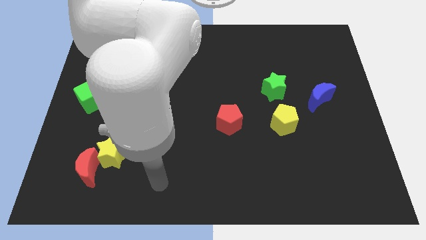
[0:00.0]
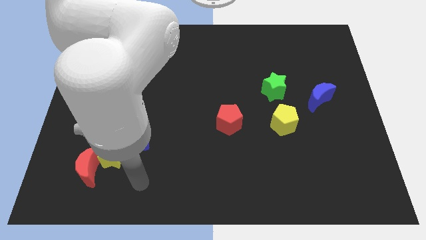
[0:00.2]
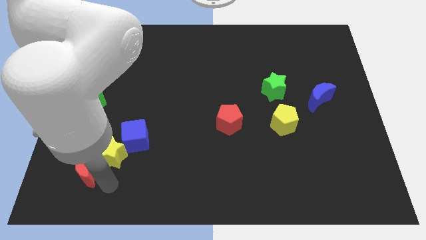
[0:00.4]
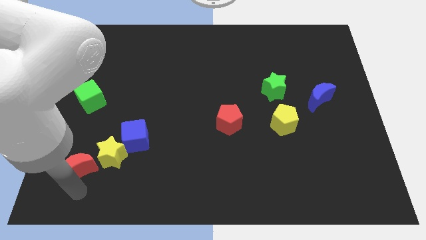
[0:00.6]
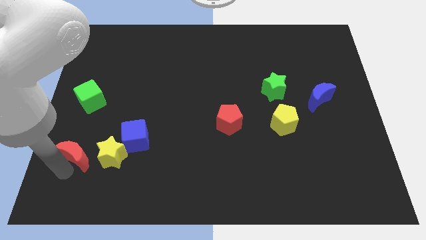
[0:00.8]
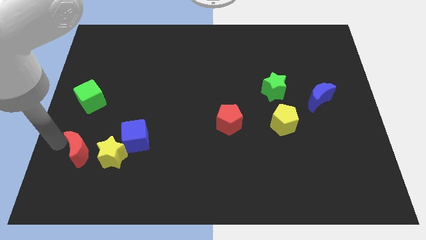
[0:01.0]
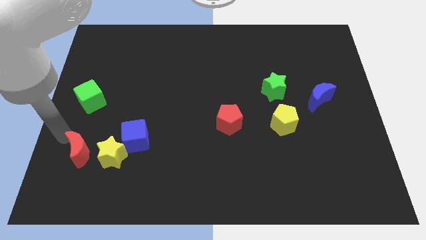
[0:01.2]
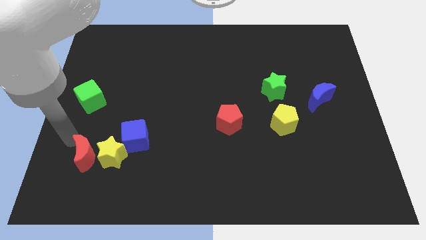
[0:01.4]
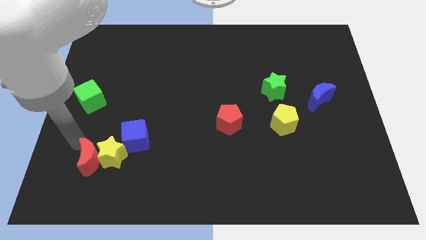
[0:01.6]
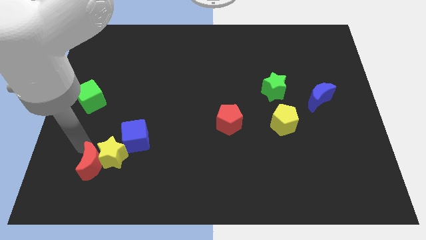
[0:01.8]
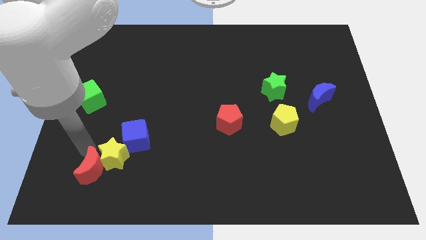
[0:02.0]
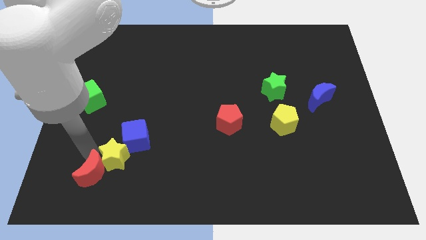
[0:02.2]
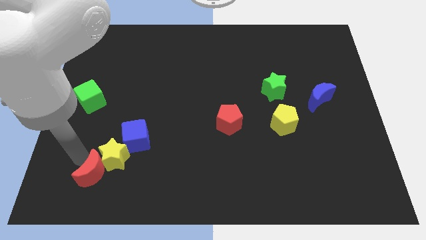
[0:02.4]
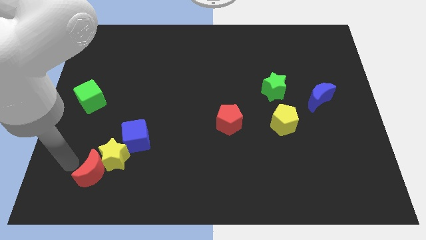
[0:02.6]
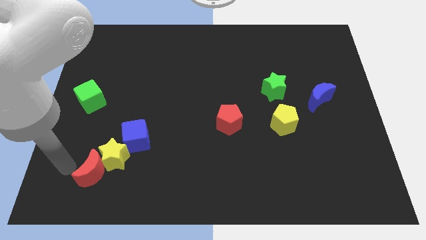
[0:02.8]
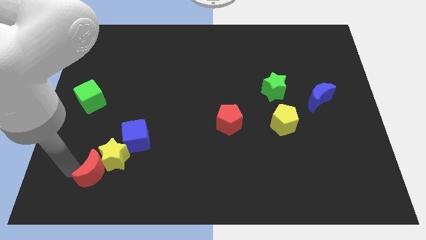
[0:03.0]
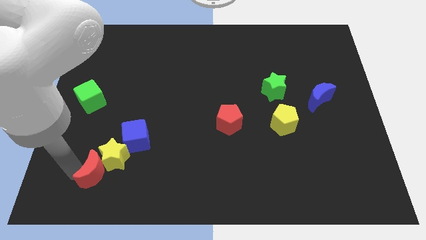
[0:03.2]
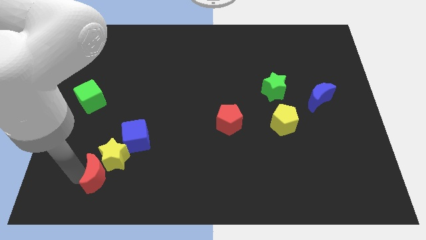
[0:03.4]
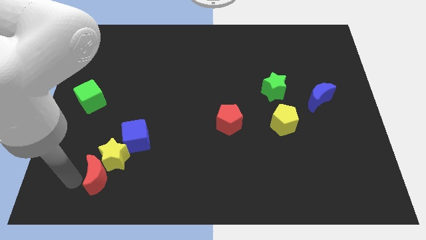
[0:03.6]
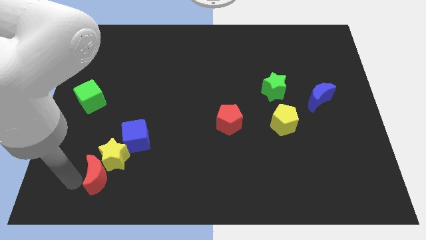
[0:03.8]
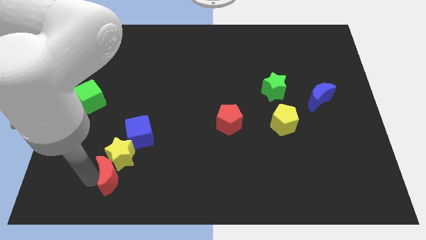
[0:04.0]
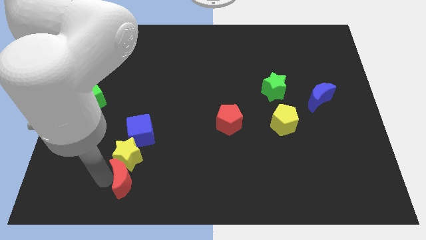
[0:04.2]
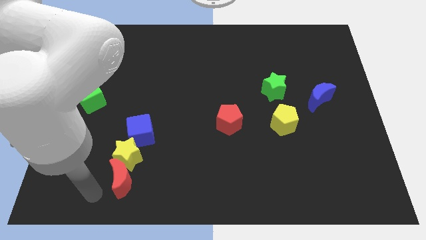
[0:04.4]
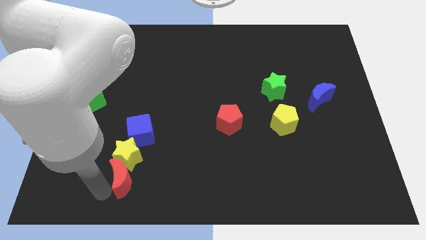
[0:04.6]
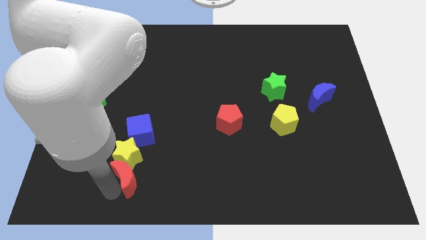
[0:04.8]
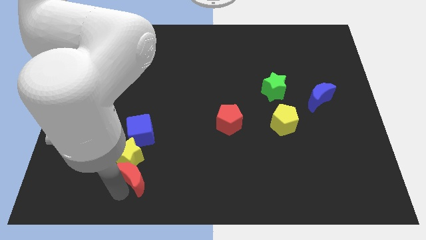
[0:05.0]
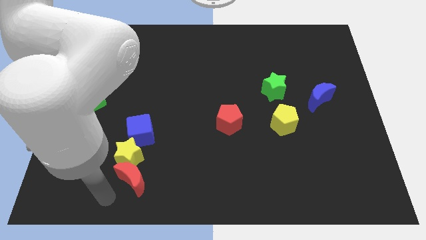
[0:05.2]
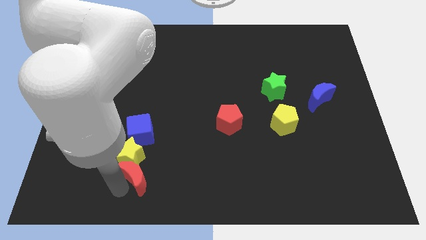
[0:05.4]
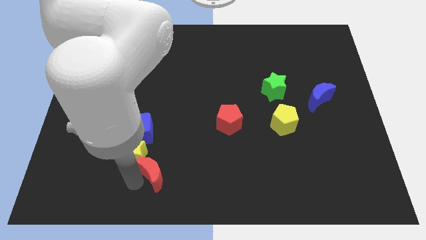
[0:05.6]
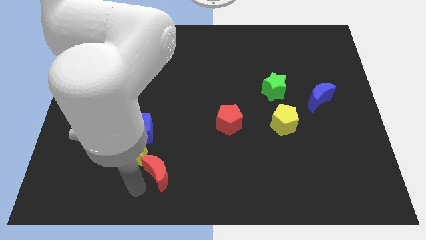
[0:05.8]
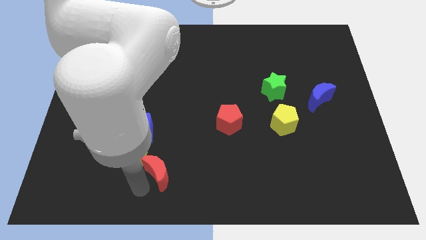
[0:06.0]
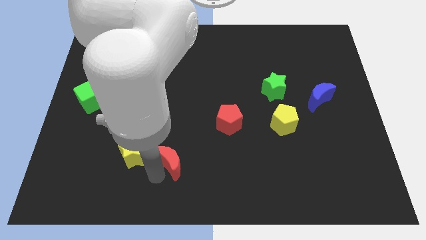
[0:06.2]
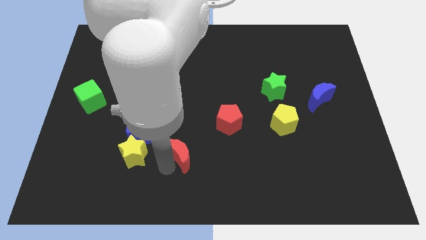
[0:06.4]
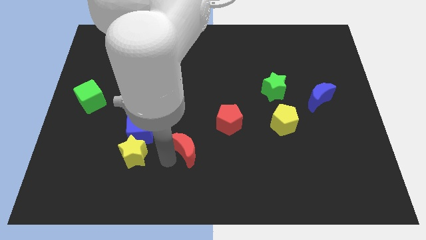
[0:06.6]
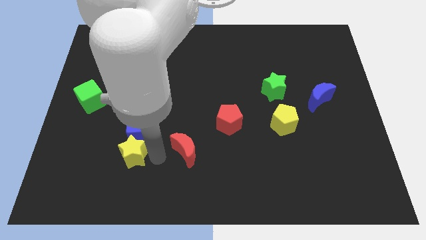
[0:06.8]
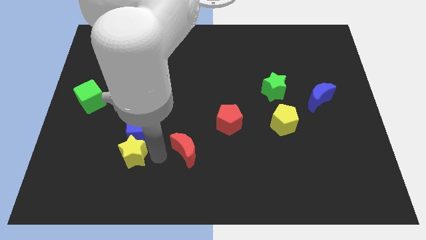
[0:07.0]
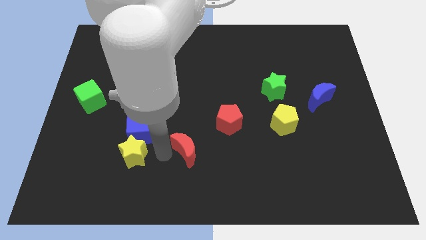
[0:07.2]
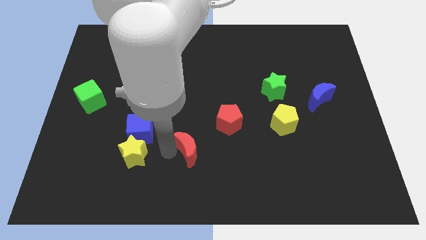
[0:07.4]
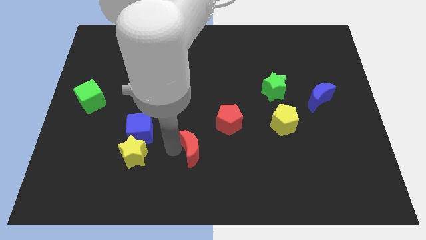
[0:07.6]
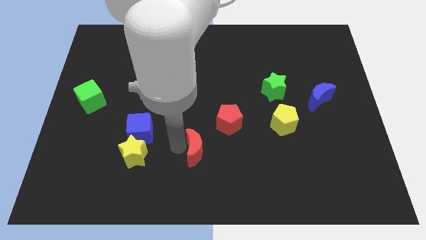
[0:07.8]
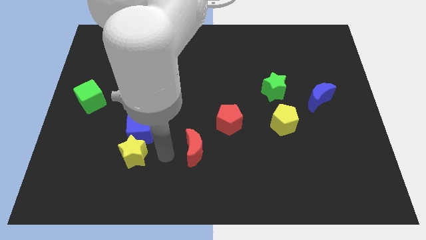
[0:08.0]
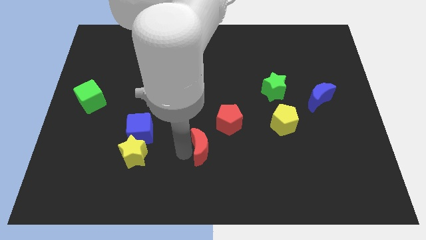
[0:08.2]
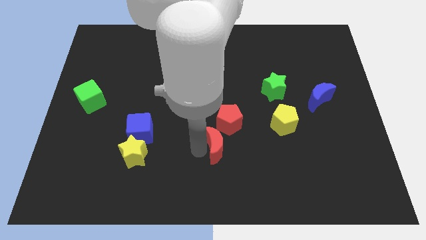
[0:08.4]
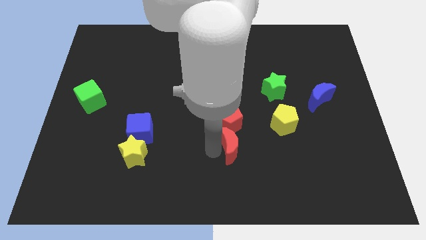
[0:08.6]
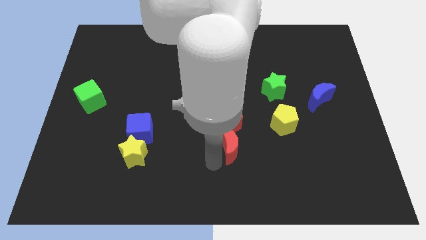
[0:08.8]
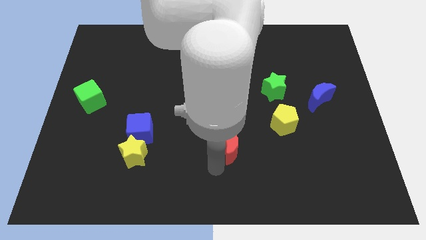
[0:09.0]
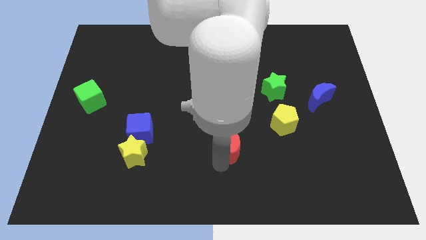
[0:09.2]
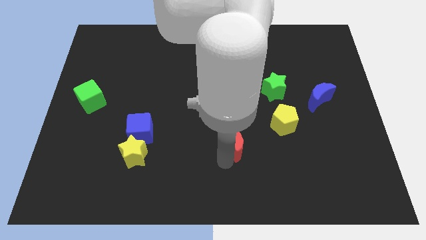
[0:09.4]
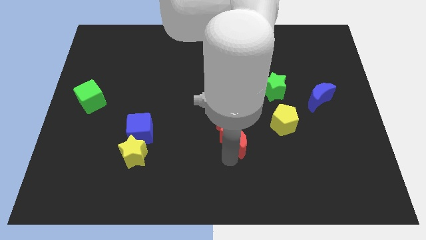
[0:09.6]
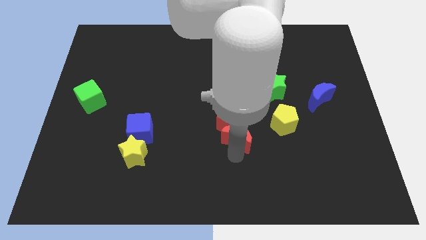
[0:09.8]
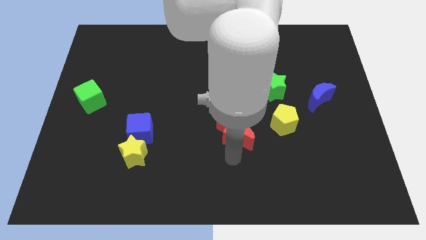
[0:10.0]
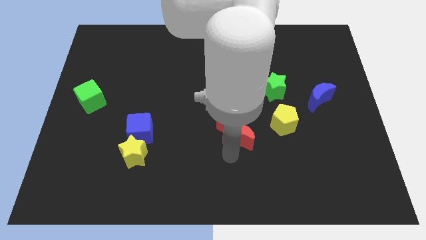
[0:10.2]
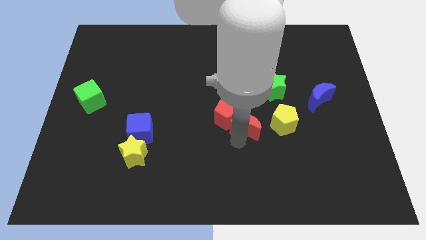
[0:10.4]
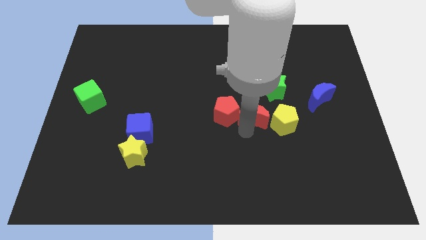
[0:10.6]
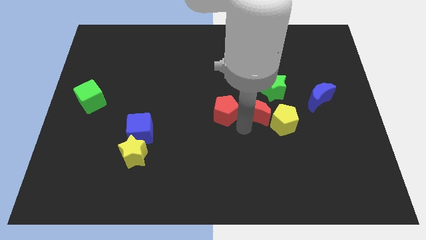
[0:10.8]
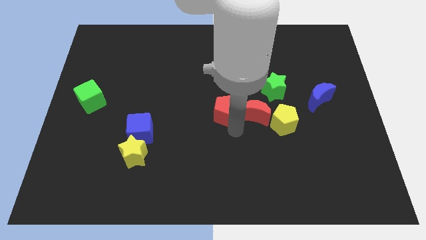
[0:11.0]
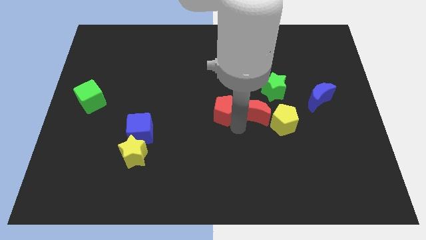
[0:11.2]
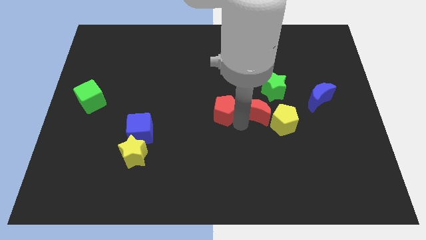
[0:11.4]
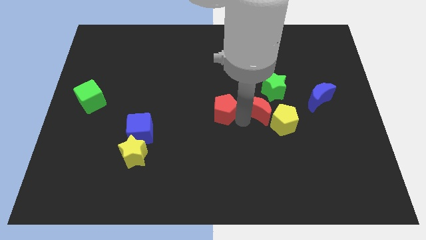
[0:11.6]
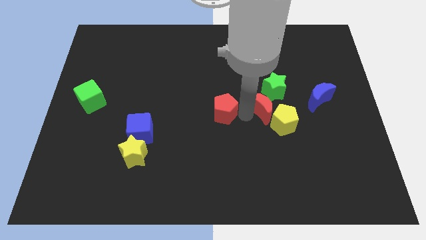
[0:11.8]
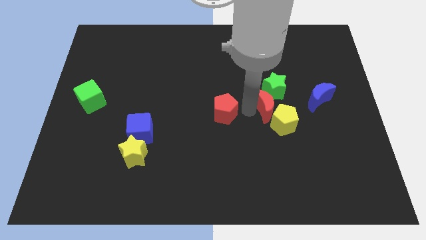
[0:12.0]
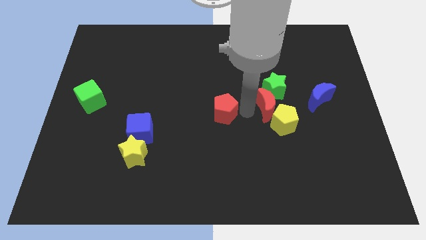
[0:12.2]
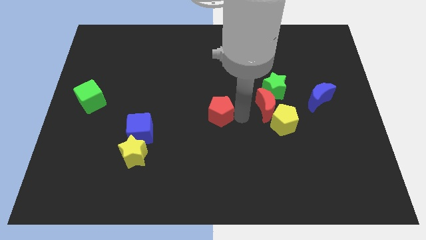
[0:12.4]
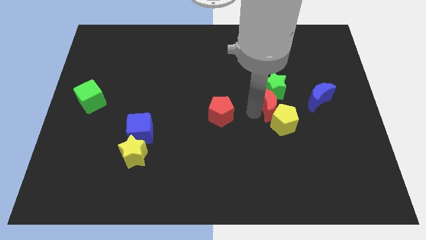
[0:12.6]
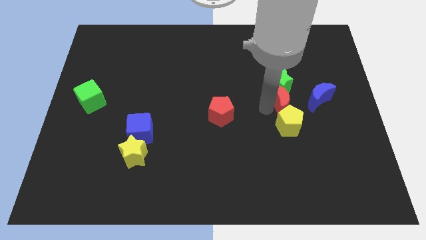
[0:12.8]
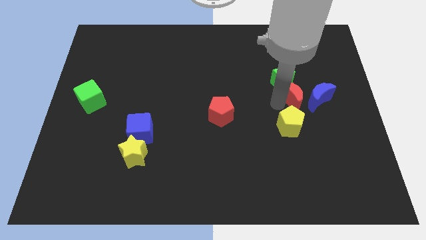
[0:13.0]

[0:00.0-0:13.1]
move the red moon next to the blue moon

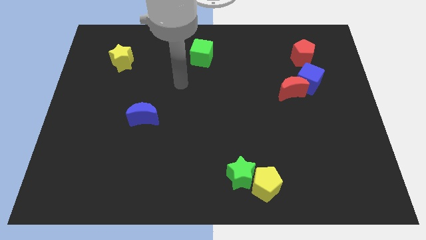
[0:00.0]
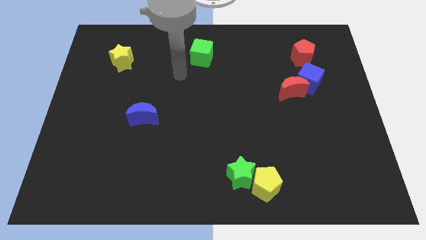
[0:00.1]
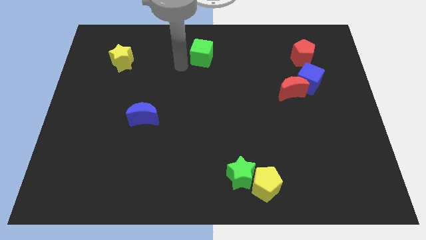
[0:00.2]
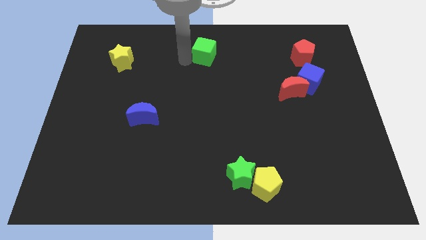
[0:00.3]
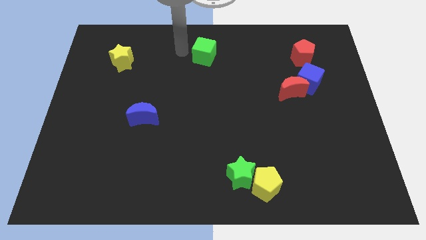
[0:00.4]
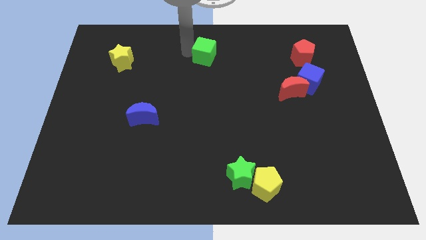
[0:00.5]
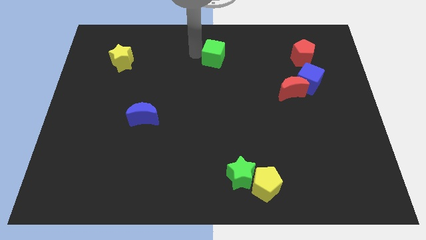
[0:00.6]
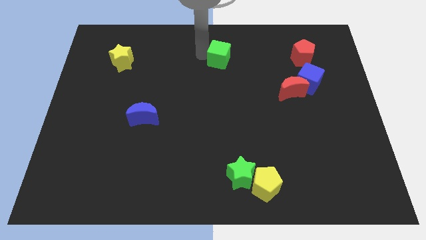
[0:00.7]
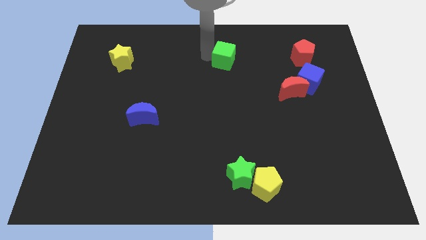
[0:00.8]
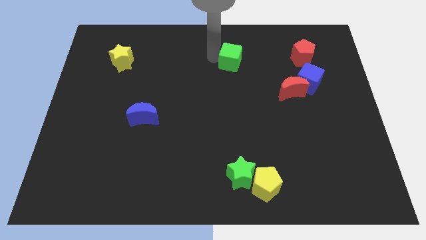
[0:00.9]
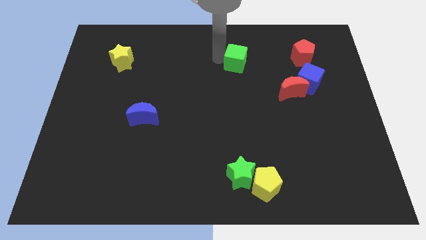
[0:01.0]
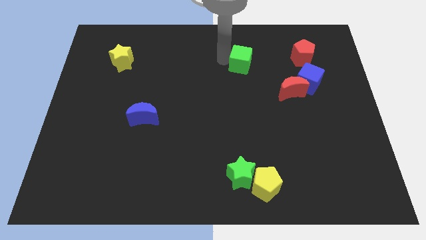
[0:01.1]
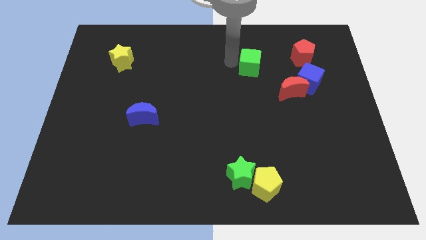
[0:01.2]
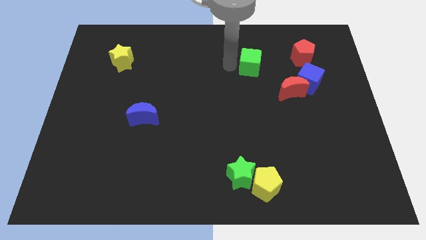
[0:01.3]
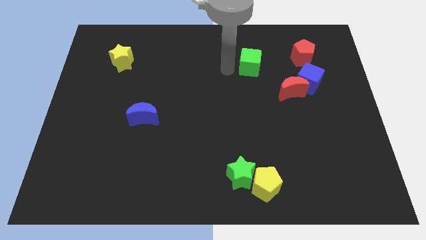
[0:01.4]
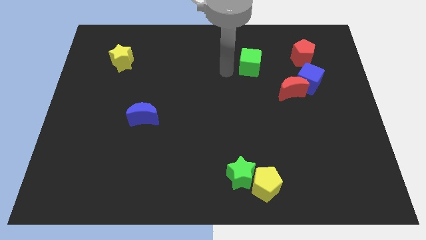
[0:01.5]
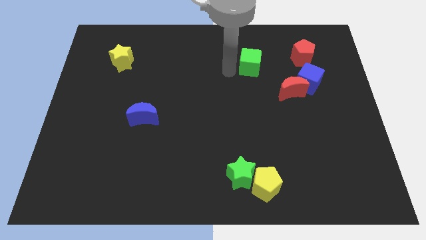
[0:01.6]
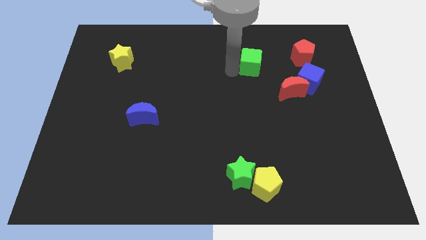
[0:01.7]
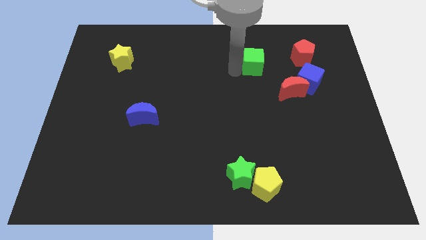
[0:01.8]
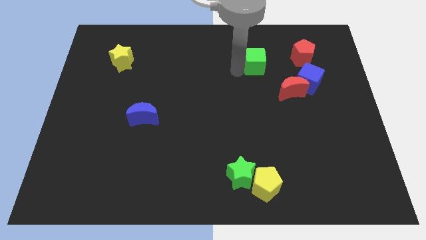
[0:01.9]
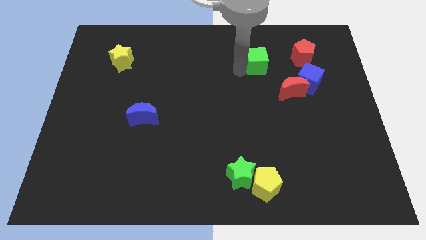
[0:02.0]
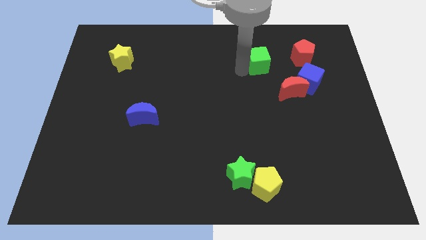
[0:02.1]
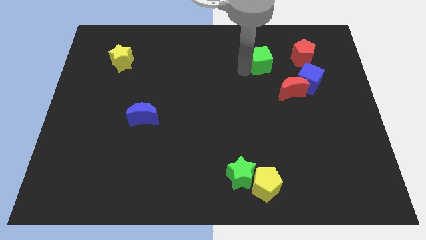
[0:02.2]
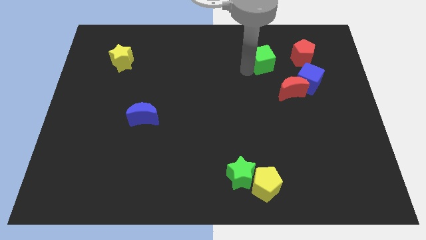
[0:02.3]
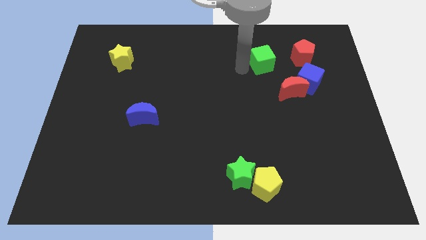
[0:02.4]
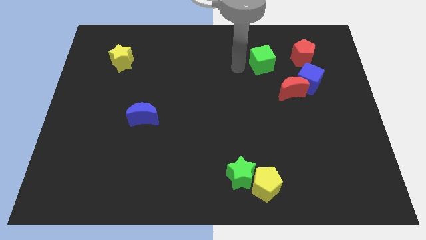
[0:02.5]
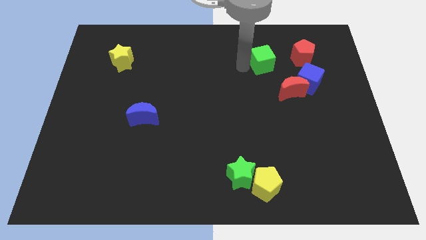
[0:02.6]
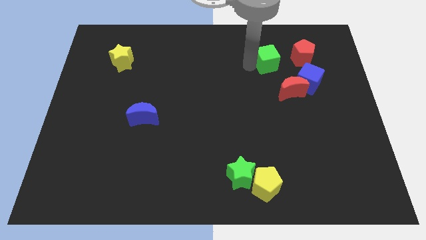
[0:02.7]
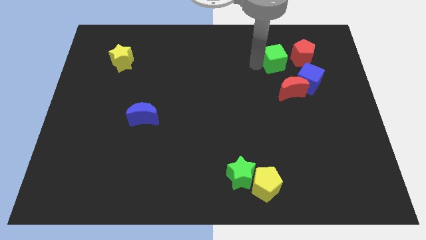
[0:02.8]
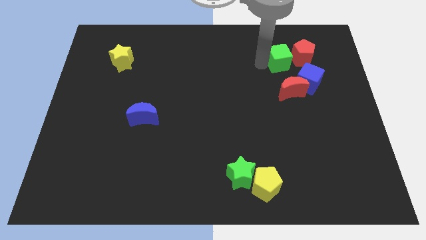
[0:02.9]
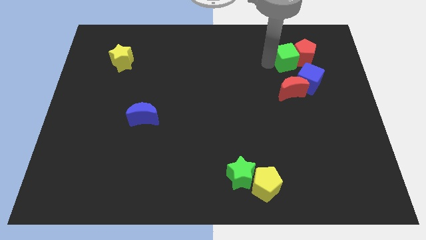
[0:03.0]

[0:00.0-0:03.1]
move the green cube close to the red pentagon
